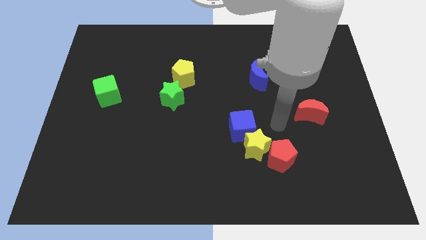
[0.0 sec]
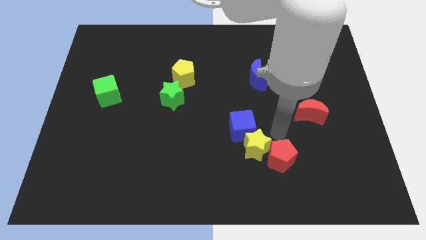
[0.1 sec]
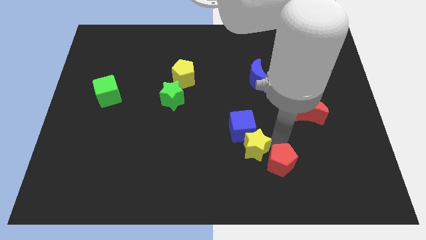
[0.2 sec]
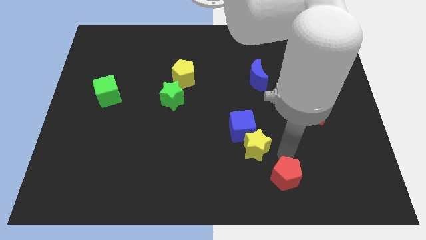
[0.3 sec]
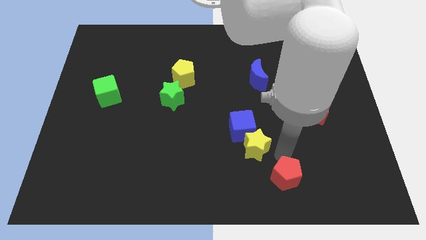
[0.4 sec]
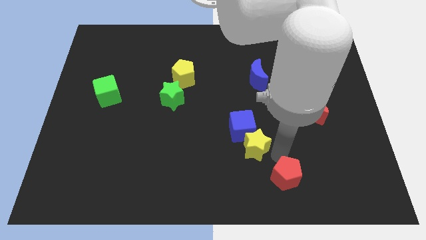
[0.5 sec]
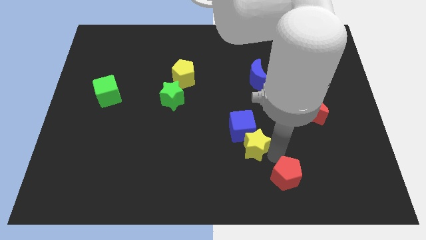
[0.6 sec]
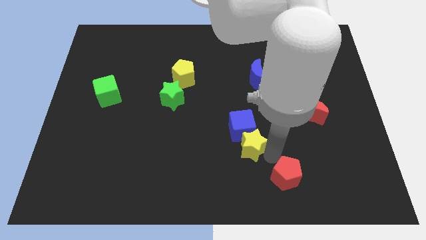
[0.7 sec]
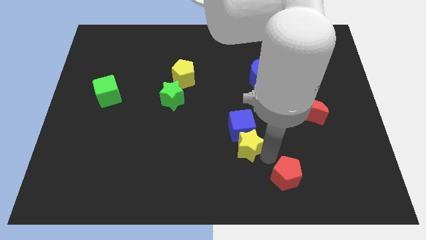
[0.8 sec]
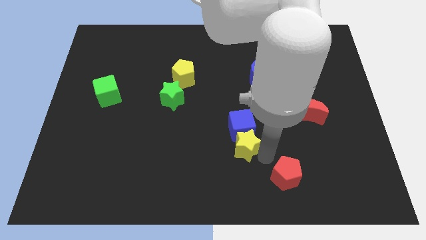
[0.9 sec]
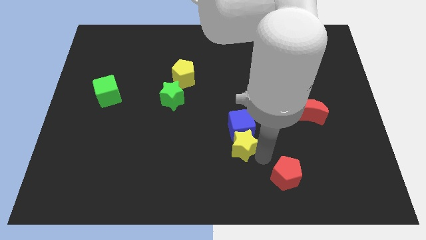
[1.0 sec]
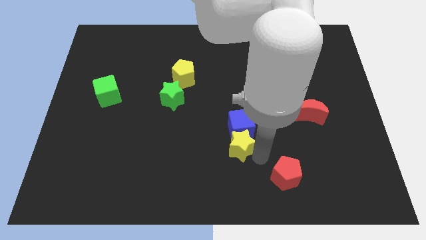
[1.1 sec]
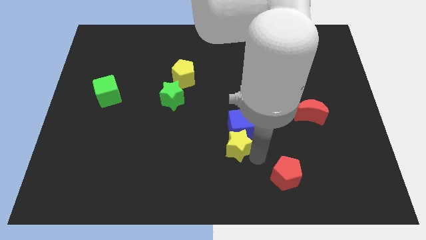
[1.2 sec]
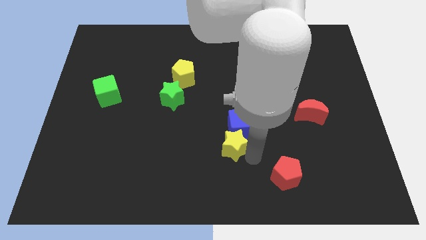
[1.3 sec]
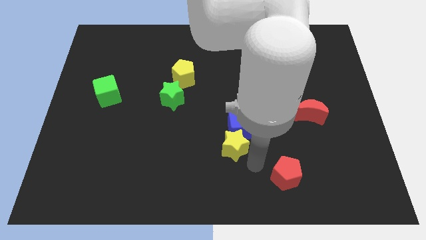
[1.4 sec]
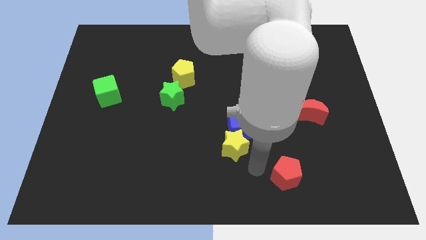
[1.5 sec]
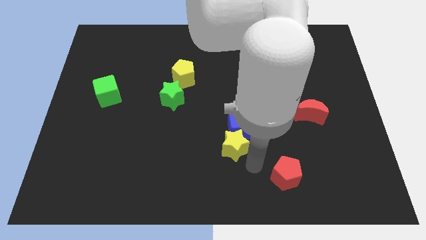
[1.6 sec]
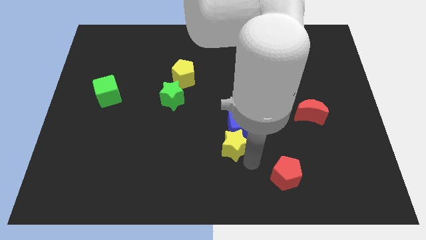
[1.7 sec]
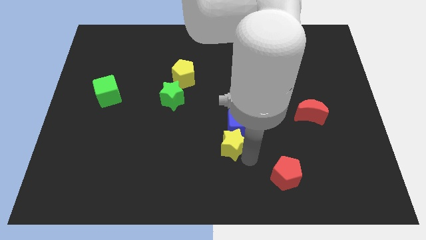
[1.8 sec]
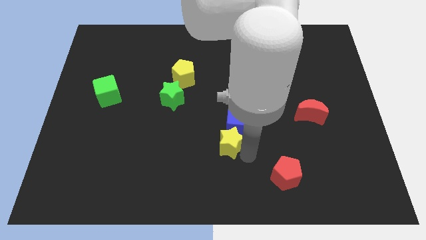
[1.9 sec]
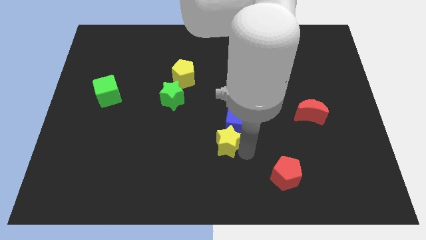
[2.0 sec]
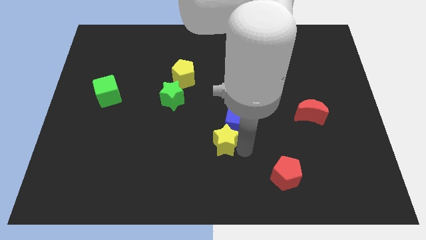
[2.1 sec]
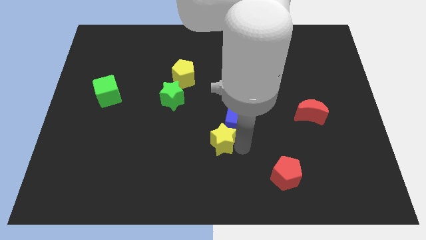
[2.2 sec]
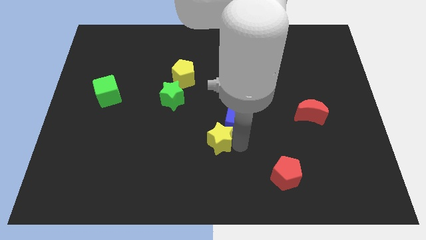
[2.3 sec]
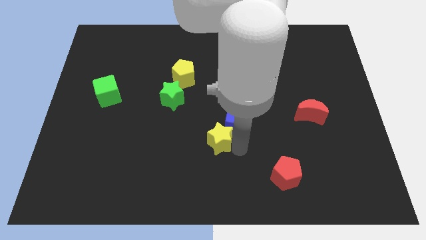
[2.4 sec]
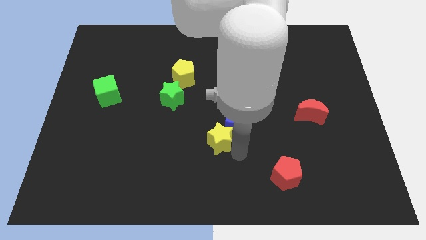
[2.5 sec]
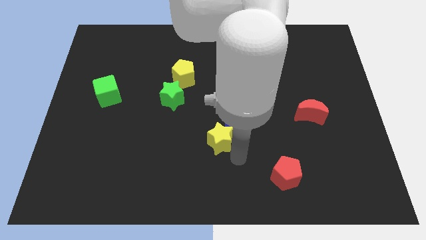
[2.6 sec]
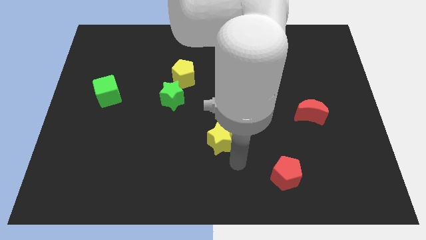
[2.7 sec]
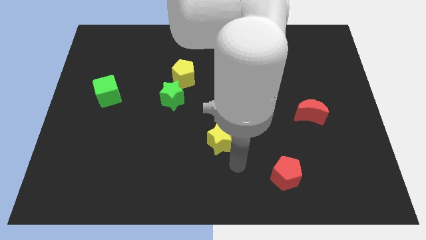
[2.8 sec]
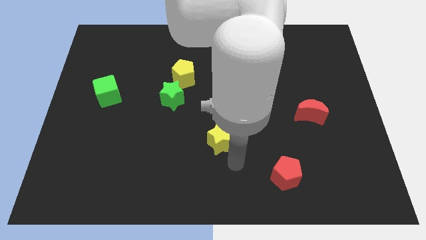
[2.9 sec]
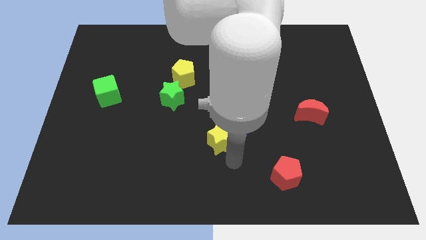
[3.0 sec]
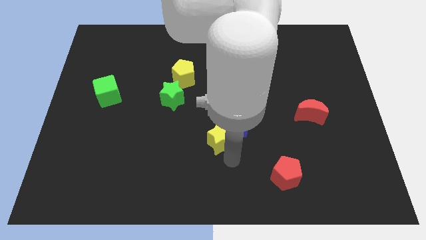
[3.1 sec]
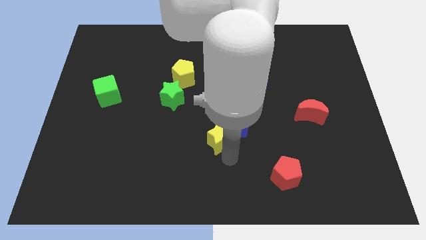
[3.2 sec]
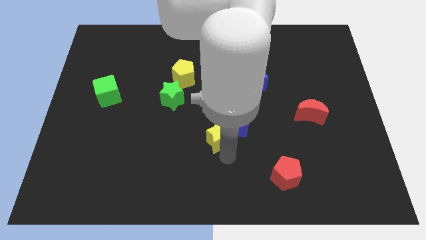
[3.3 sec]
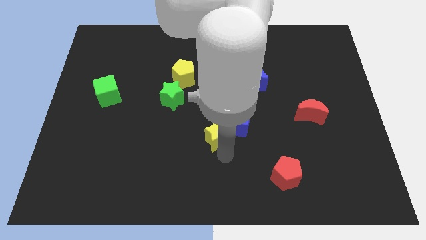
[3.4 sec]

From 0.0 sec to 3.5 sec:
move the yellow star upwards and left a bit

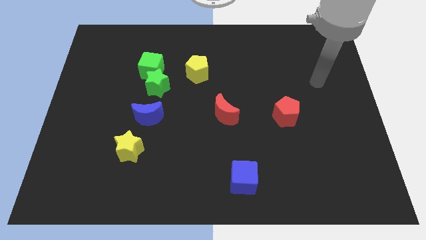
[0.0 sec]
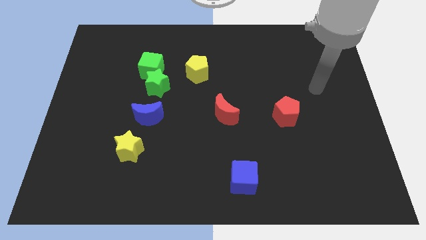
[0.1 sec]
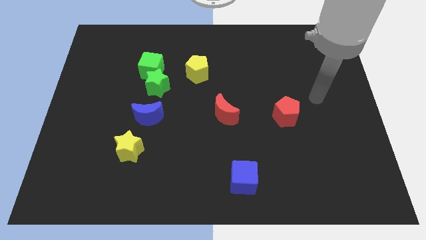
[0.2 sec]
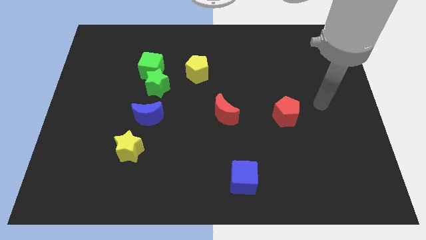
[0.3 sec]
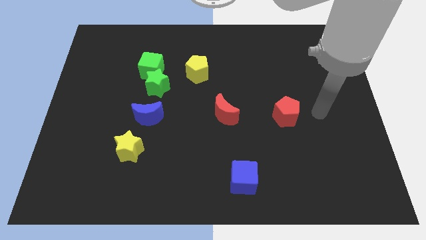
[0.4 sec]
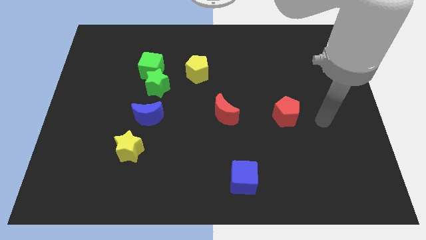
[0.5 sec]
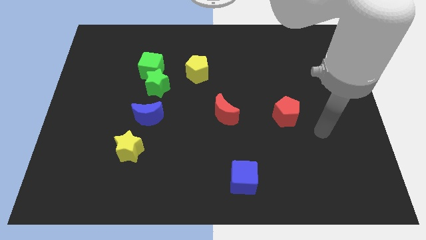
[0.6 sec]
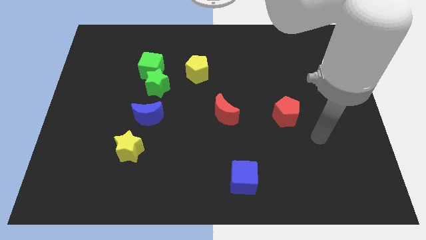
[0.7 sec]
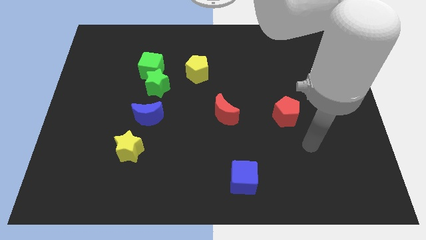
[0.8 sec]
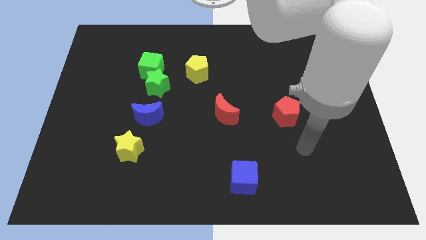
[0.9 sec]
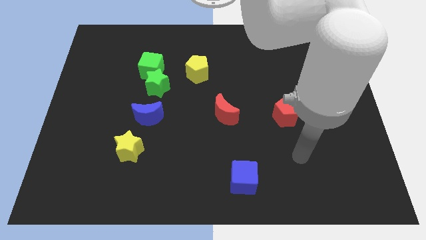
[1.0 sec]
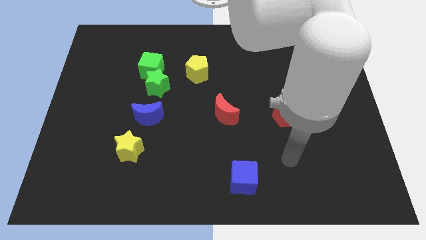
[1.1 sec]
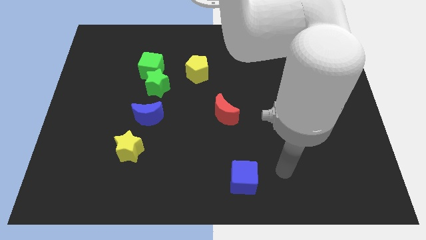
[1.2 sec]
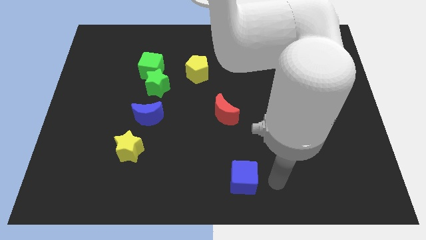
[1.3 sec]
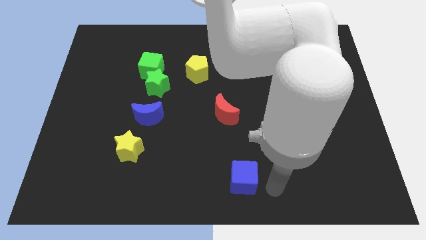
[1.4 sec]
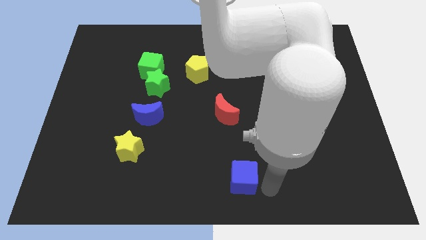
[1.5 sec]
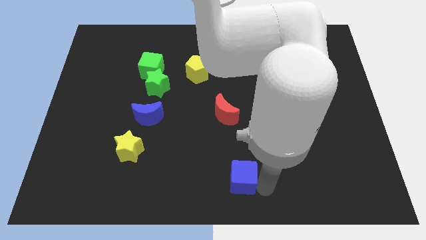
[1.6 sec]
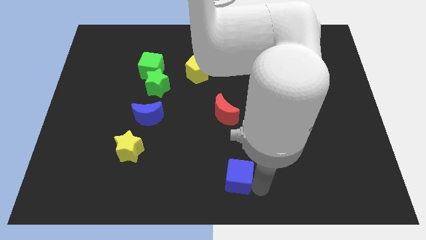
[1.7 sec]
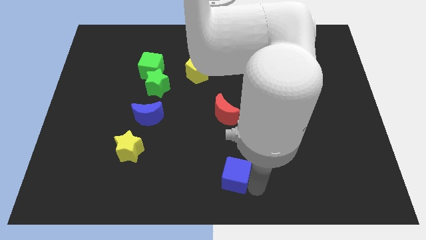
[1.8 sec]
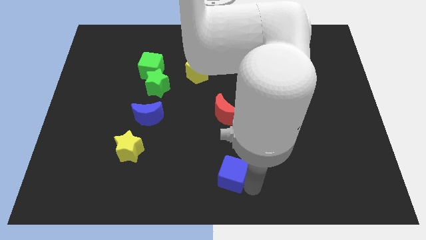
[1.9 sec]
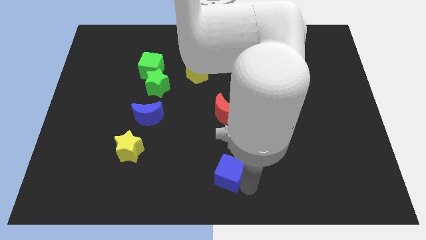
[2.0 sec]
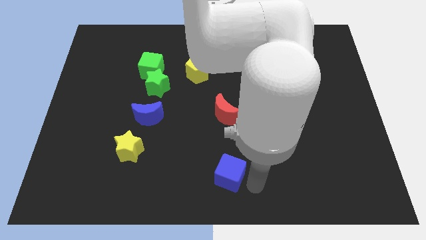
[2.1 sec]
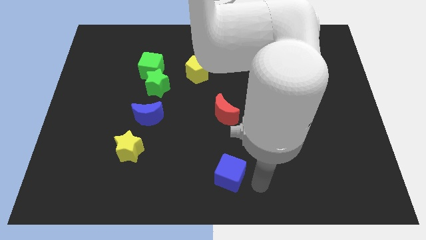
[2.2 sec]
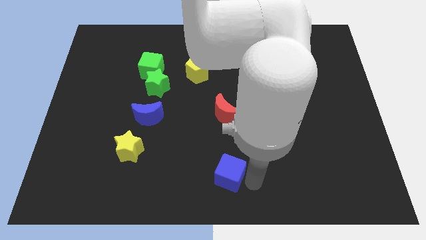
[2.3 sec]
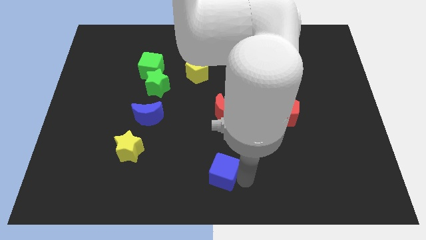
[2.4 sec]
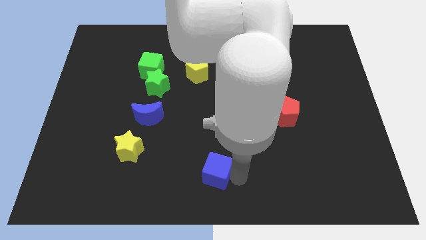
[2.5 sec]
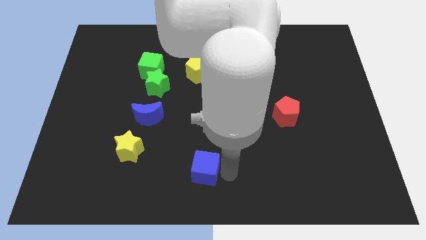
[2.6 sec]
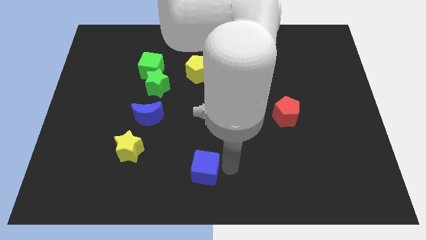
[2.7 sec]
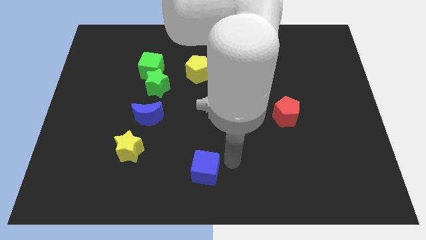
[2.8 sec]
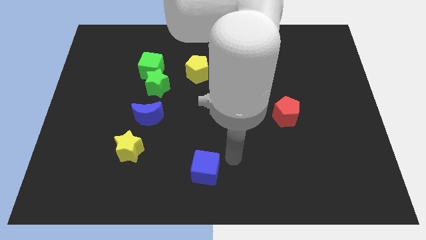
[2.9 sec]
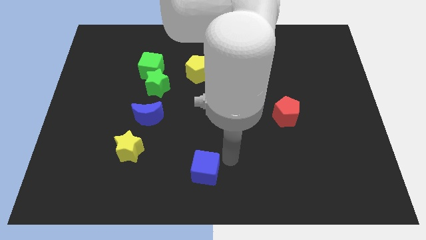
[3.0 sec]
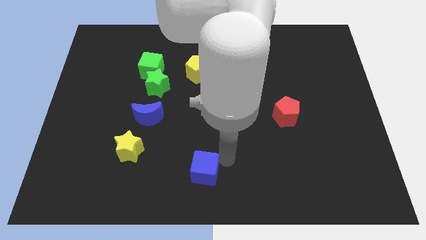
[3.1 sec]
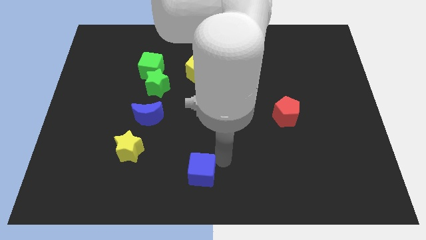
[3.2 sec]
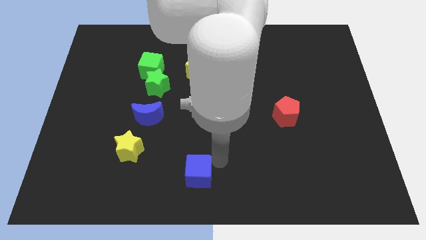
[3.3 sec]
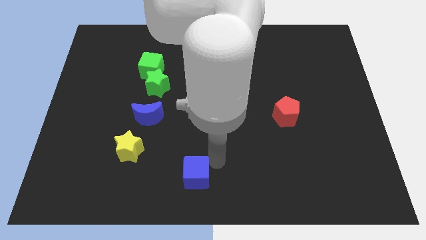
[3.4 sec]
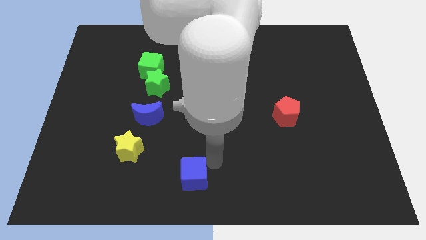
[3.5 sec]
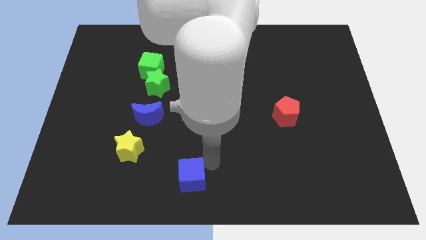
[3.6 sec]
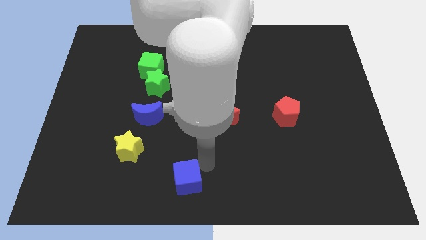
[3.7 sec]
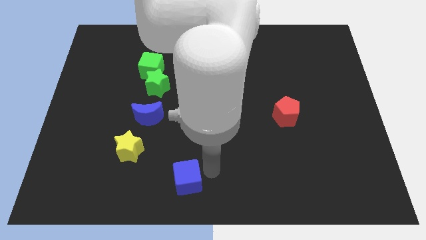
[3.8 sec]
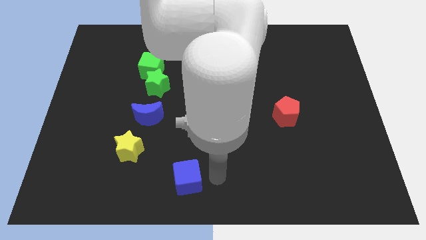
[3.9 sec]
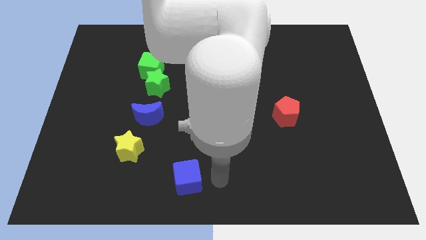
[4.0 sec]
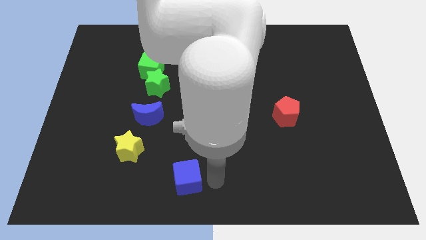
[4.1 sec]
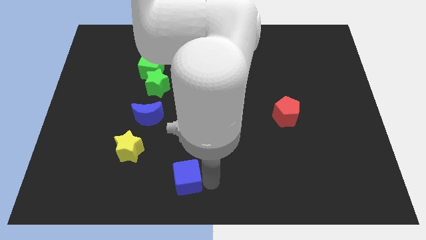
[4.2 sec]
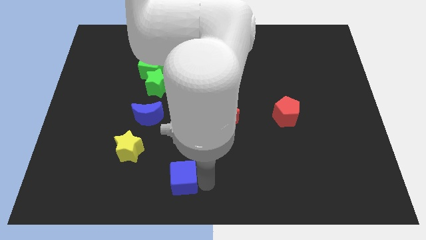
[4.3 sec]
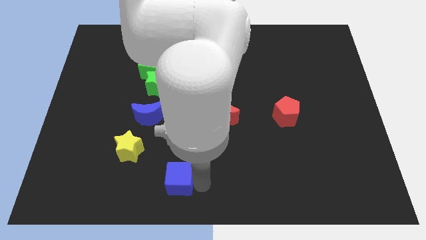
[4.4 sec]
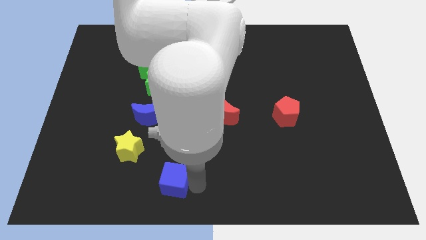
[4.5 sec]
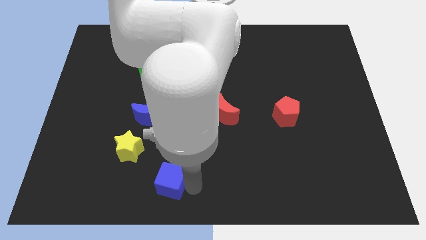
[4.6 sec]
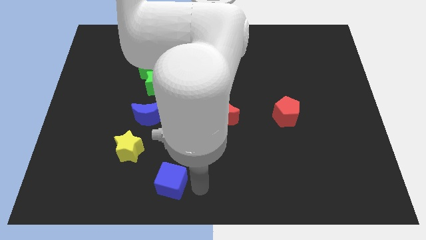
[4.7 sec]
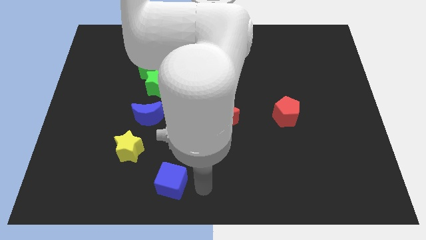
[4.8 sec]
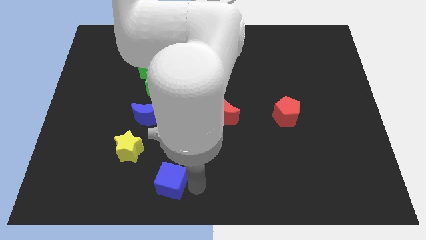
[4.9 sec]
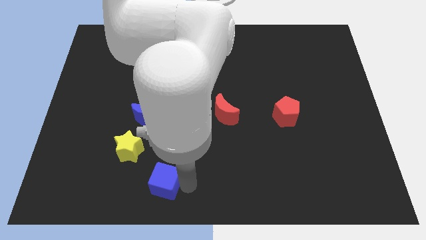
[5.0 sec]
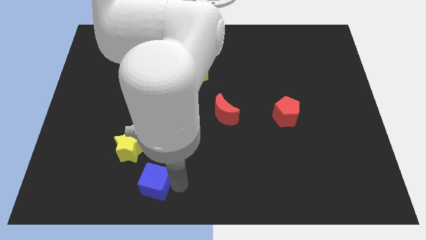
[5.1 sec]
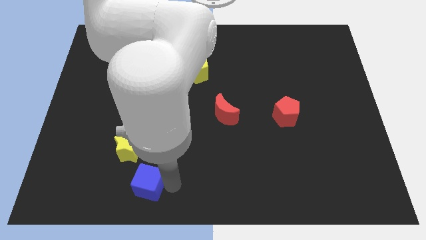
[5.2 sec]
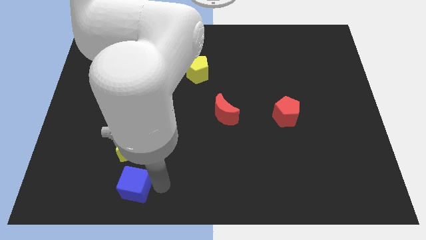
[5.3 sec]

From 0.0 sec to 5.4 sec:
slide the blue cube left
